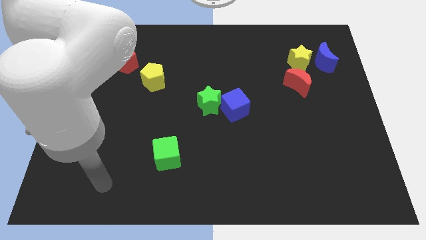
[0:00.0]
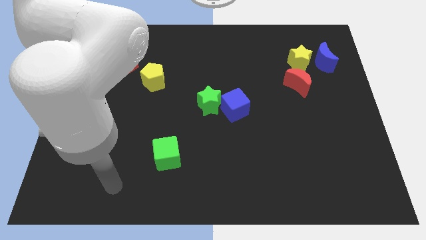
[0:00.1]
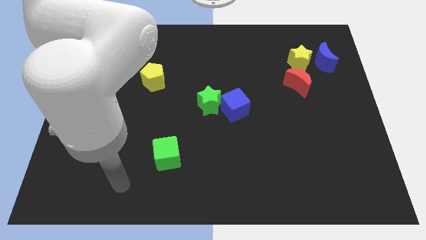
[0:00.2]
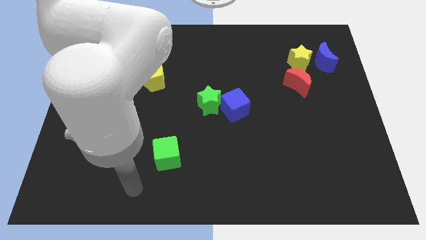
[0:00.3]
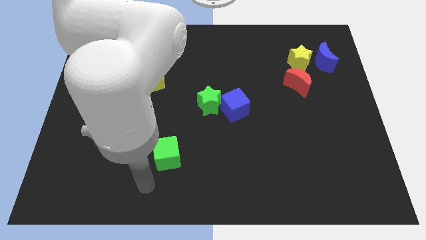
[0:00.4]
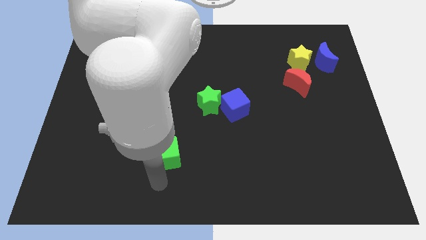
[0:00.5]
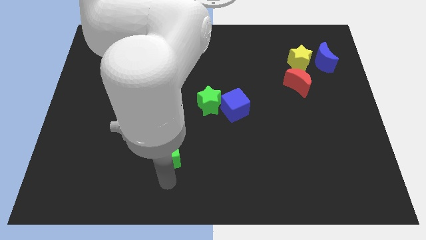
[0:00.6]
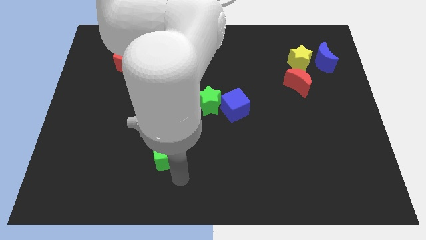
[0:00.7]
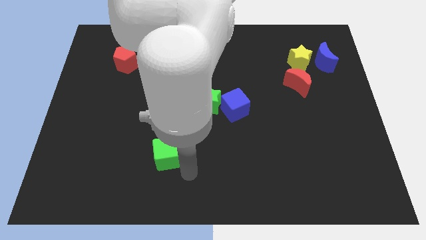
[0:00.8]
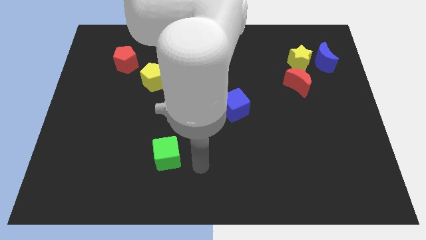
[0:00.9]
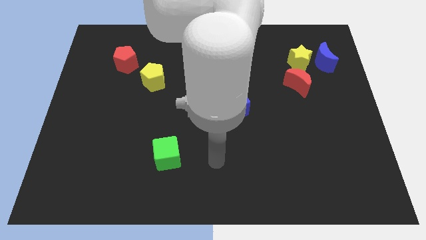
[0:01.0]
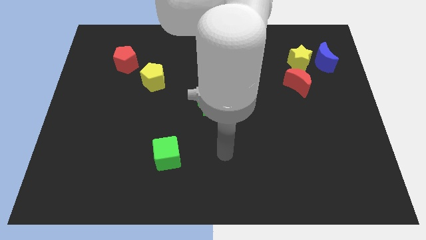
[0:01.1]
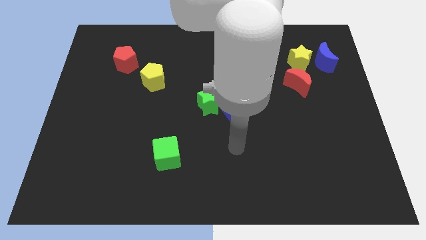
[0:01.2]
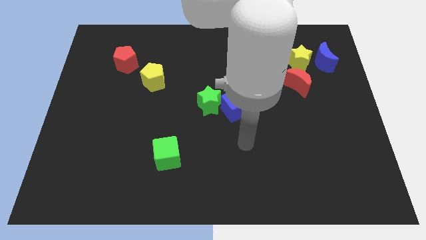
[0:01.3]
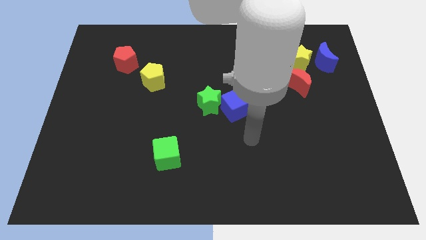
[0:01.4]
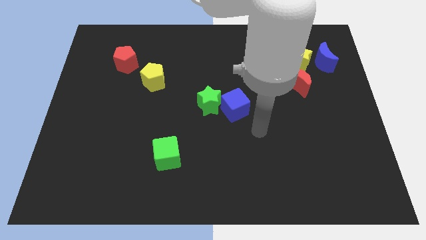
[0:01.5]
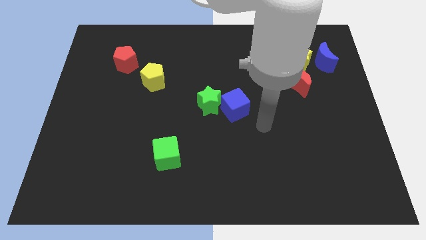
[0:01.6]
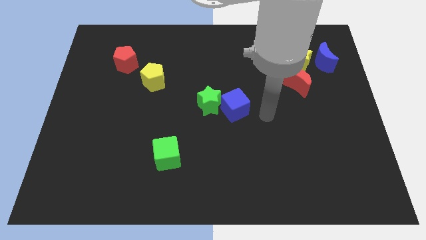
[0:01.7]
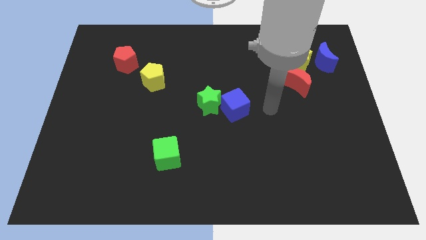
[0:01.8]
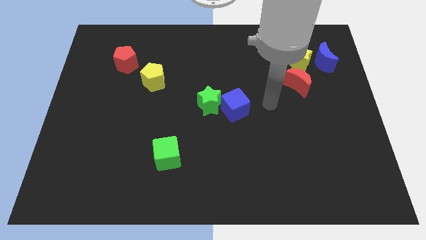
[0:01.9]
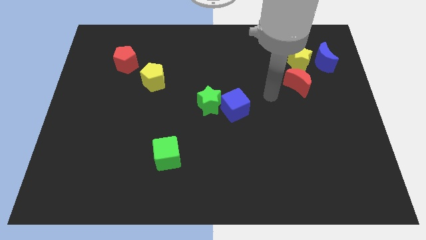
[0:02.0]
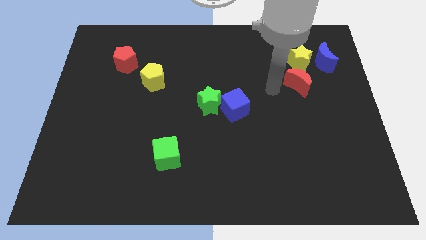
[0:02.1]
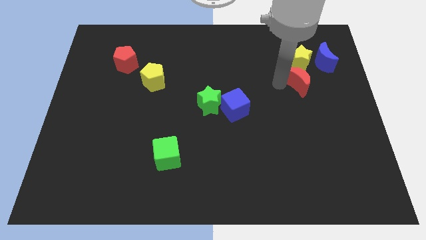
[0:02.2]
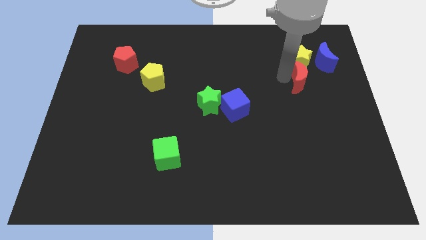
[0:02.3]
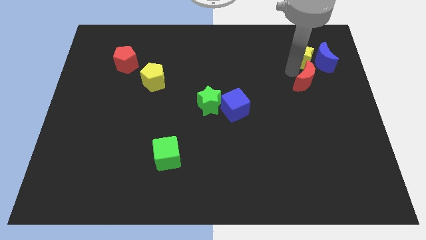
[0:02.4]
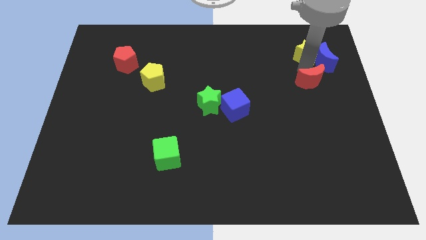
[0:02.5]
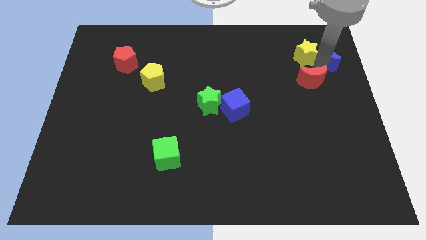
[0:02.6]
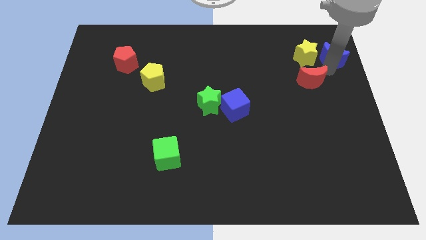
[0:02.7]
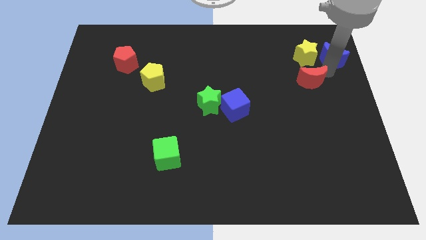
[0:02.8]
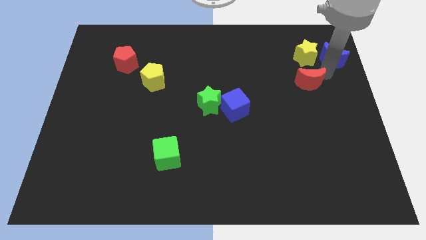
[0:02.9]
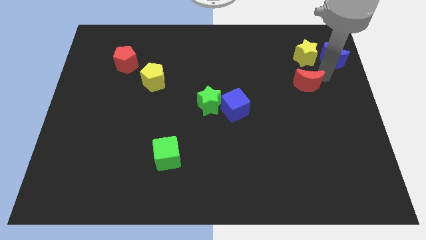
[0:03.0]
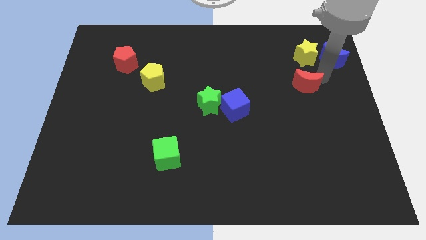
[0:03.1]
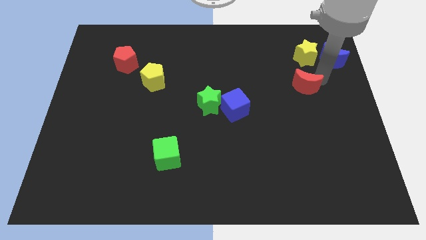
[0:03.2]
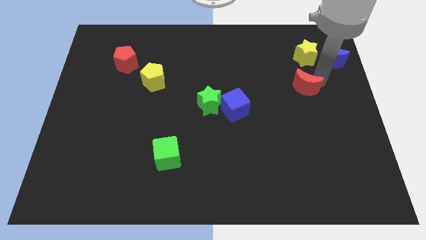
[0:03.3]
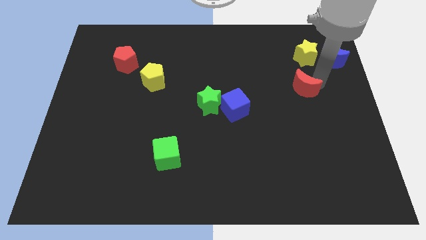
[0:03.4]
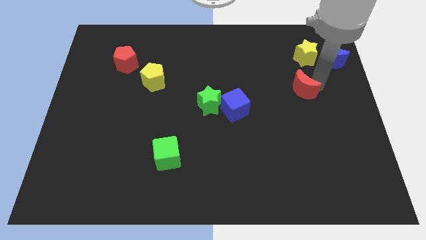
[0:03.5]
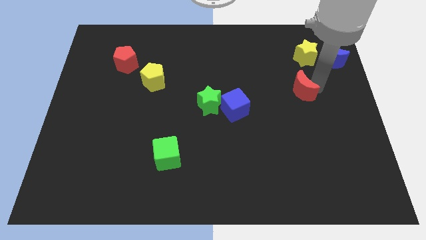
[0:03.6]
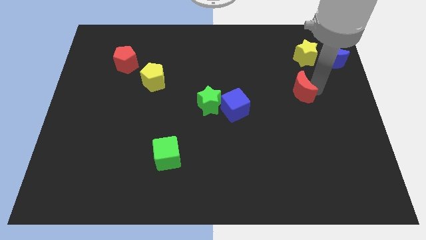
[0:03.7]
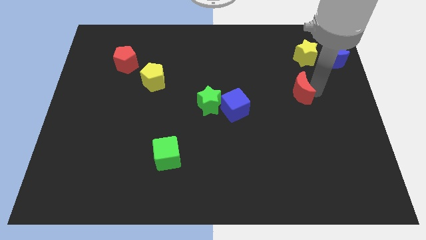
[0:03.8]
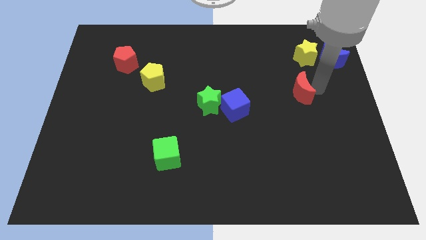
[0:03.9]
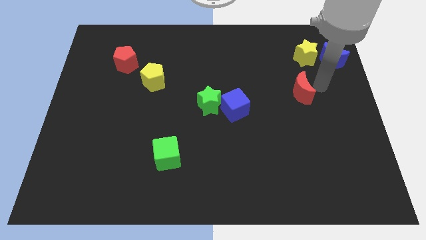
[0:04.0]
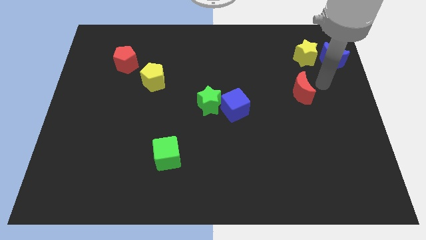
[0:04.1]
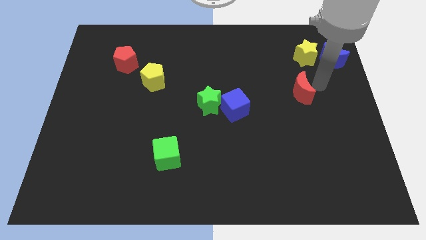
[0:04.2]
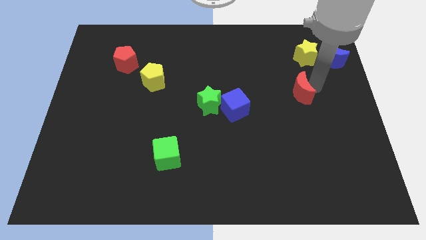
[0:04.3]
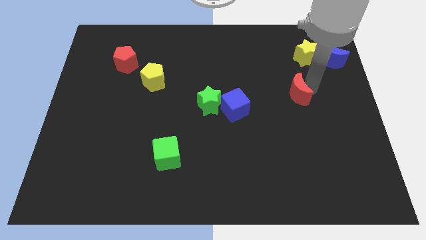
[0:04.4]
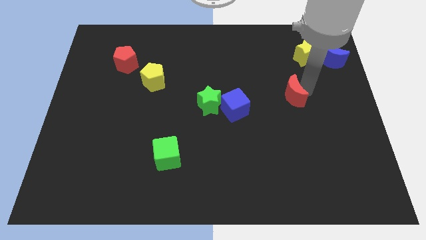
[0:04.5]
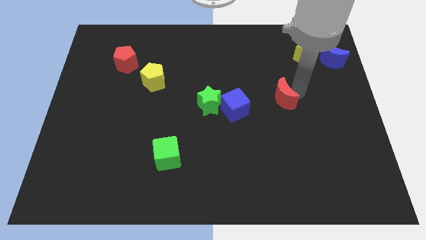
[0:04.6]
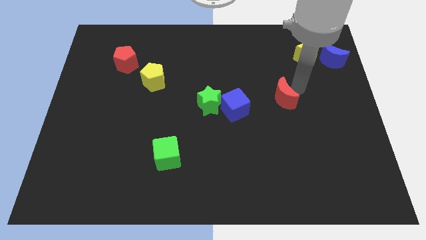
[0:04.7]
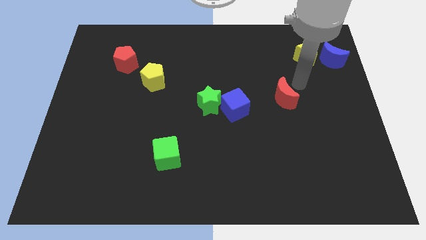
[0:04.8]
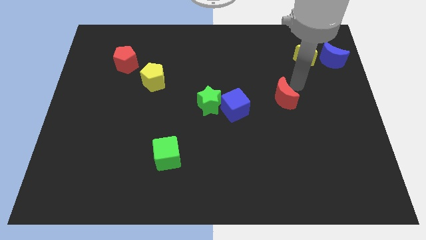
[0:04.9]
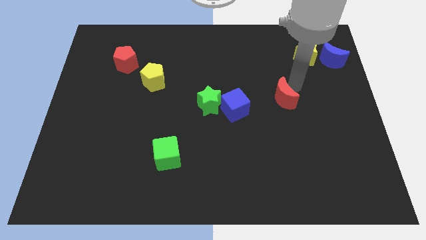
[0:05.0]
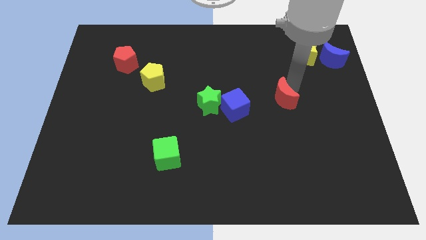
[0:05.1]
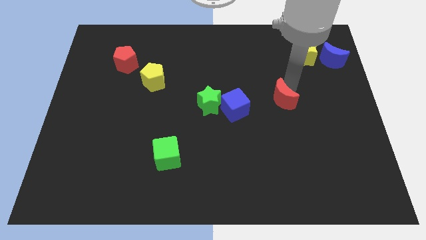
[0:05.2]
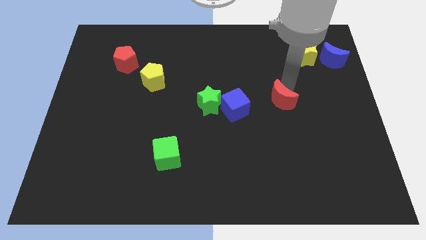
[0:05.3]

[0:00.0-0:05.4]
slide the red moon diagonally down and left slightly

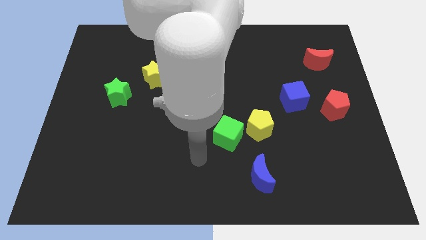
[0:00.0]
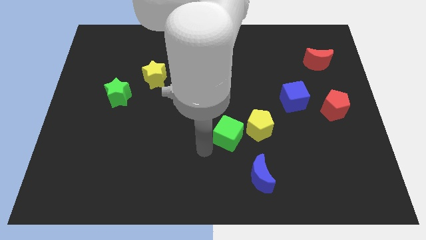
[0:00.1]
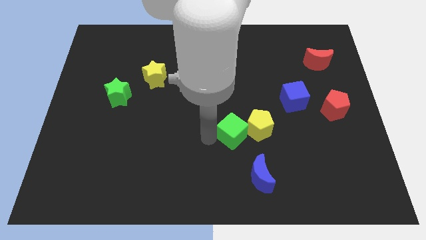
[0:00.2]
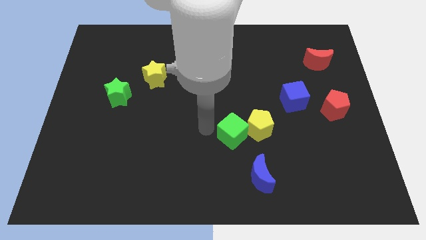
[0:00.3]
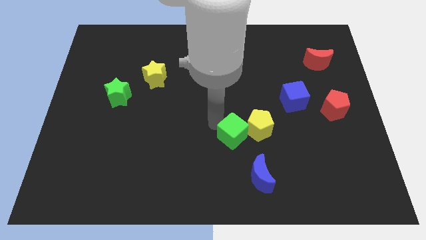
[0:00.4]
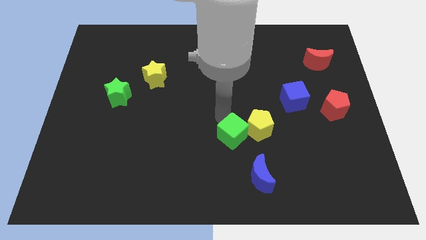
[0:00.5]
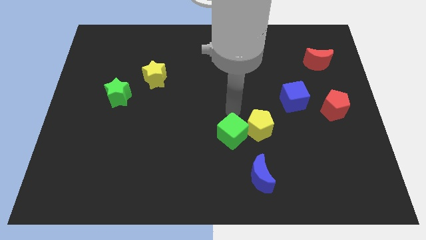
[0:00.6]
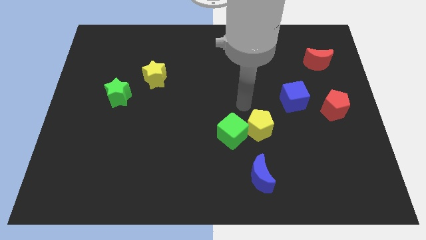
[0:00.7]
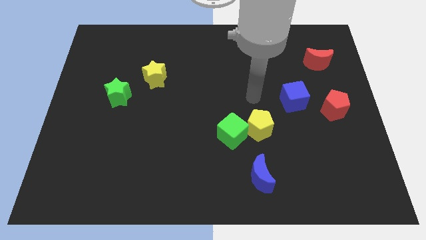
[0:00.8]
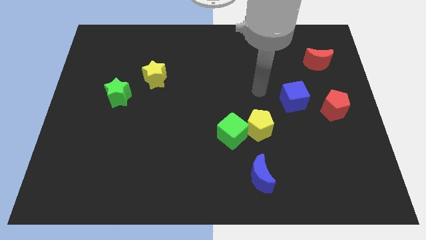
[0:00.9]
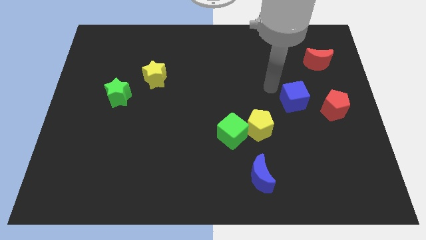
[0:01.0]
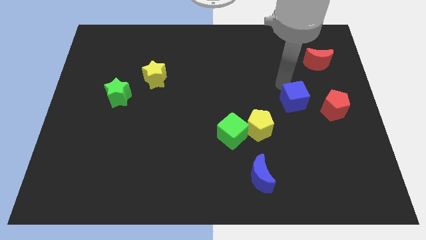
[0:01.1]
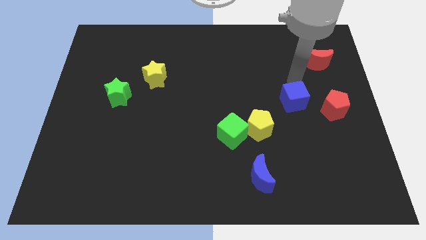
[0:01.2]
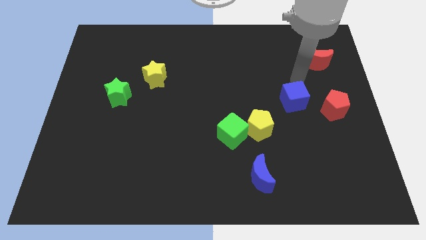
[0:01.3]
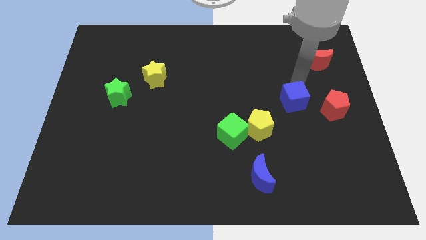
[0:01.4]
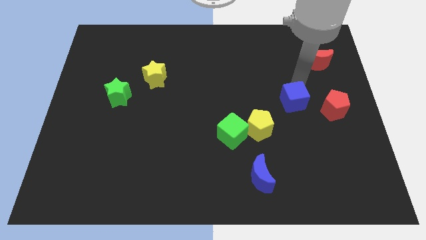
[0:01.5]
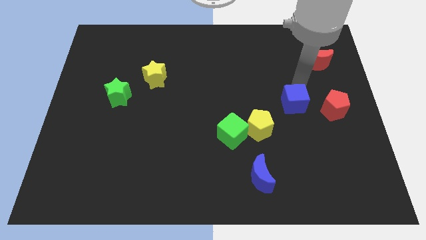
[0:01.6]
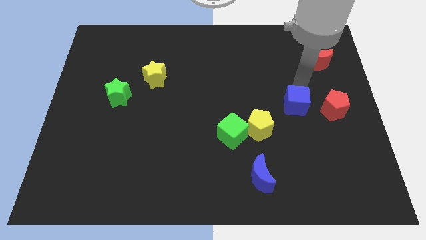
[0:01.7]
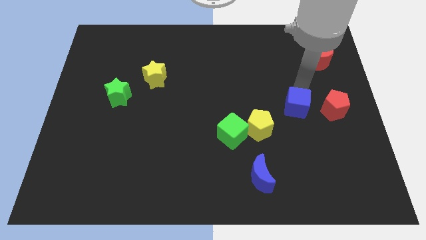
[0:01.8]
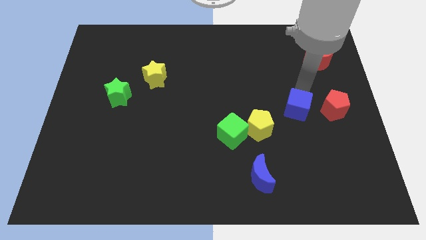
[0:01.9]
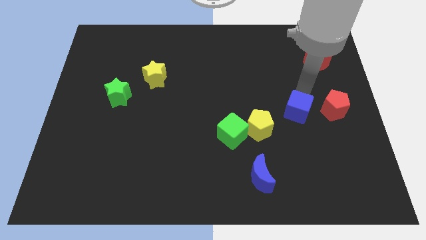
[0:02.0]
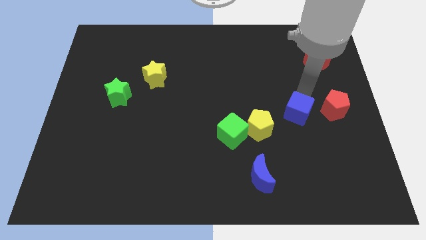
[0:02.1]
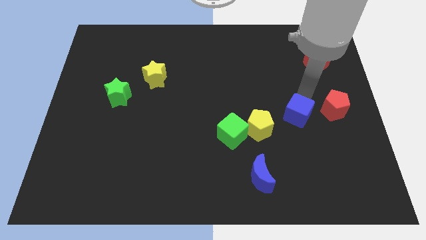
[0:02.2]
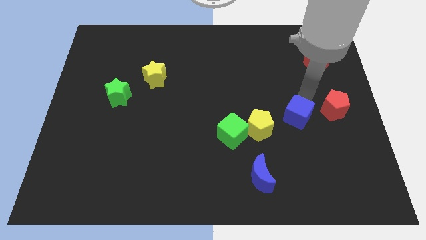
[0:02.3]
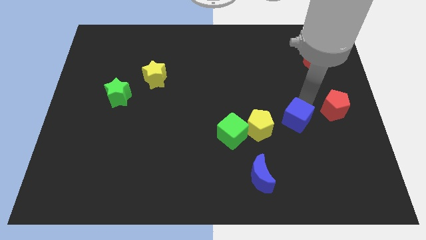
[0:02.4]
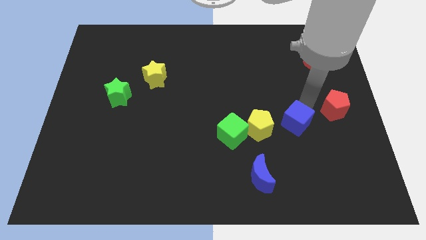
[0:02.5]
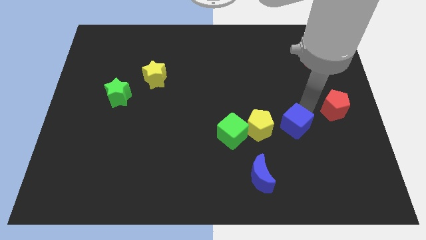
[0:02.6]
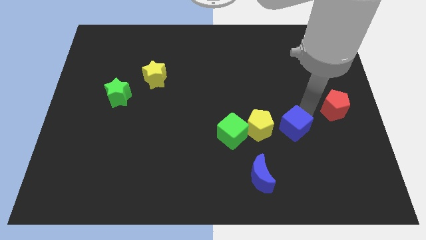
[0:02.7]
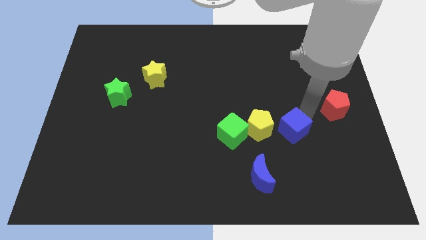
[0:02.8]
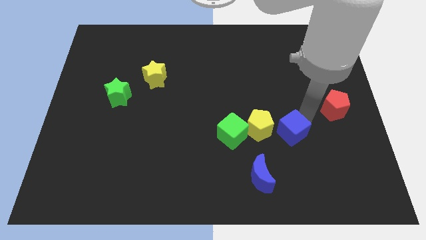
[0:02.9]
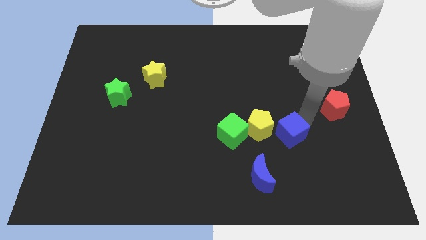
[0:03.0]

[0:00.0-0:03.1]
slide the blue cube diagonally down and left somewhat
